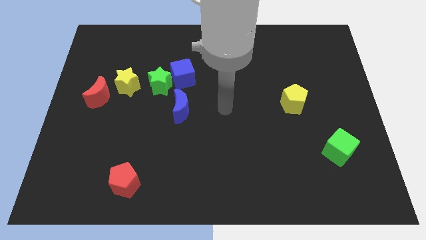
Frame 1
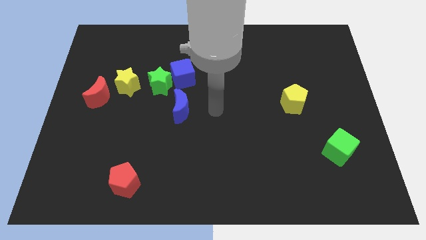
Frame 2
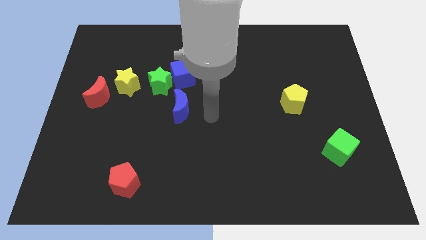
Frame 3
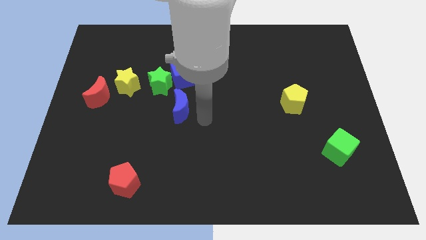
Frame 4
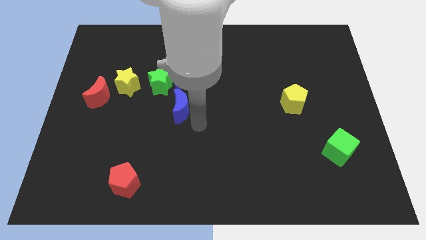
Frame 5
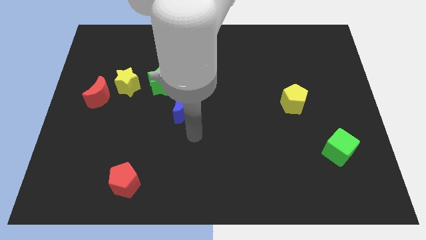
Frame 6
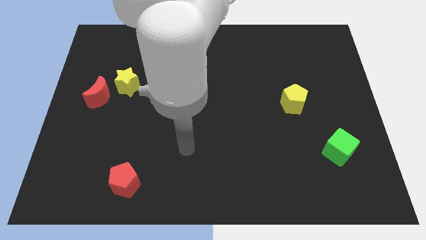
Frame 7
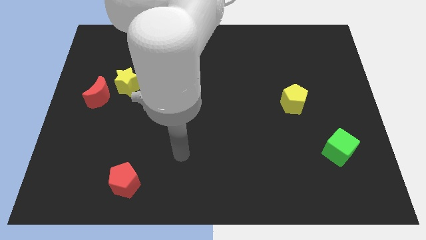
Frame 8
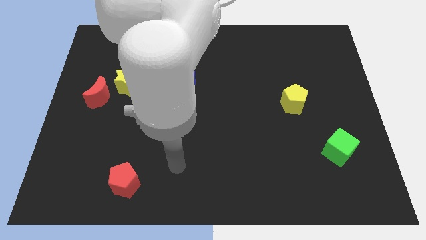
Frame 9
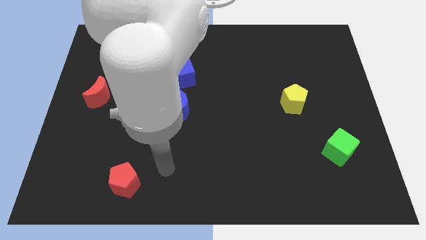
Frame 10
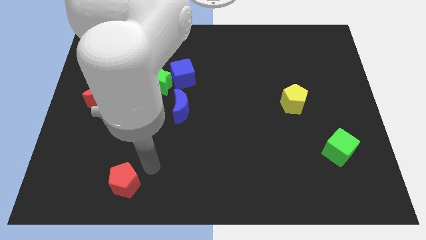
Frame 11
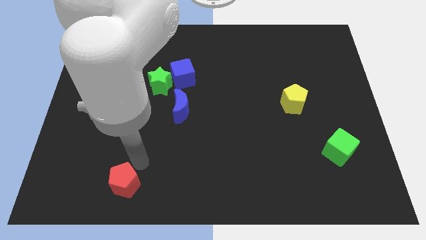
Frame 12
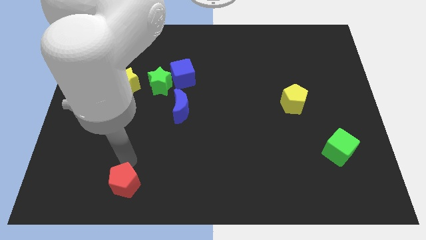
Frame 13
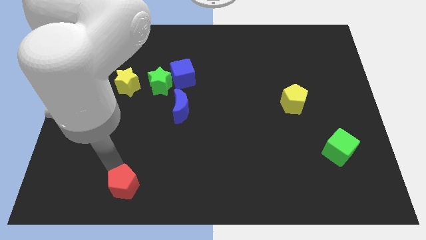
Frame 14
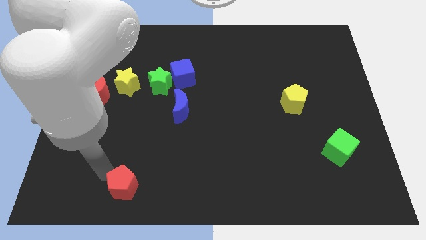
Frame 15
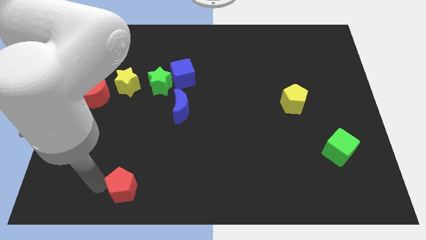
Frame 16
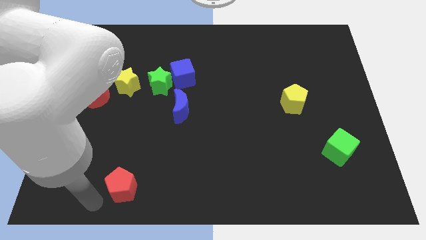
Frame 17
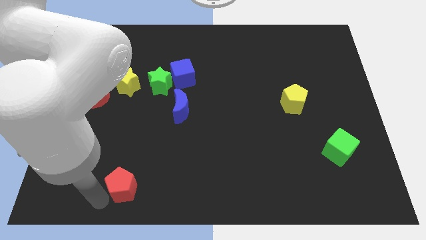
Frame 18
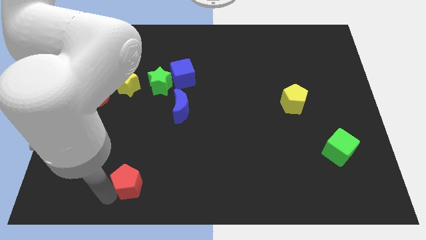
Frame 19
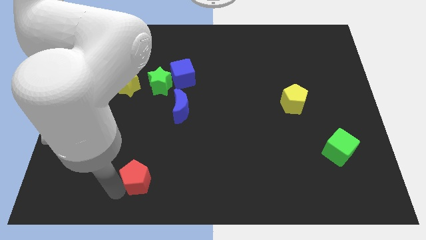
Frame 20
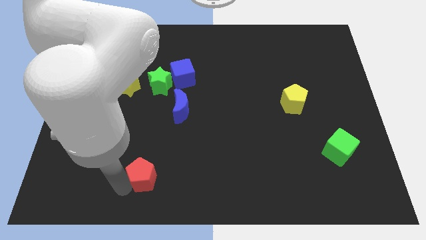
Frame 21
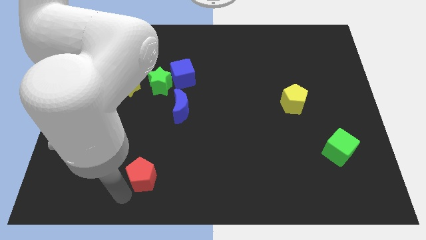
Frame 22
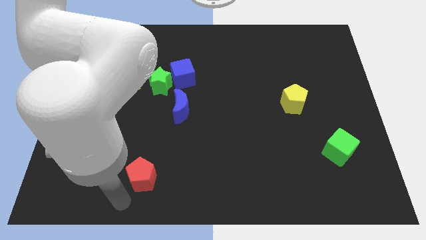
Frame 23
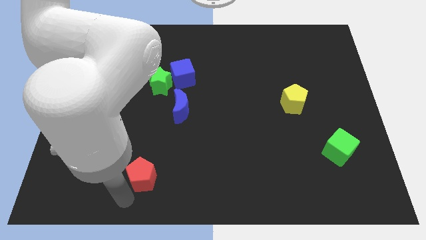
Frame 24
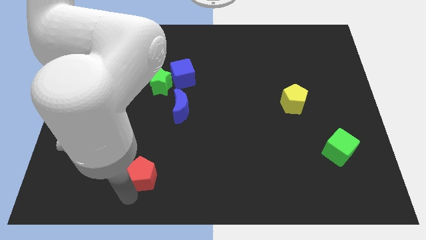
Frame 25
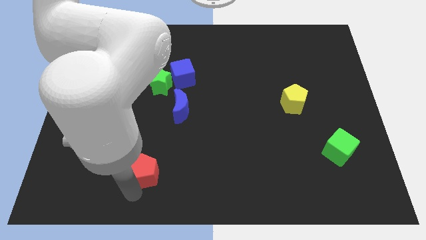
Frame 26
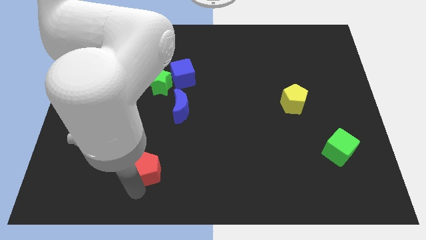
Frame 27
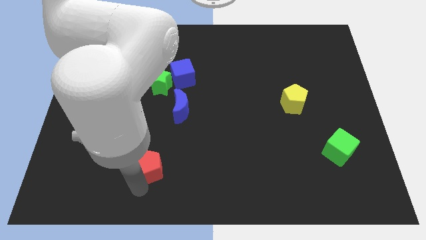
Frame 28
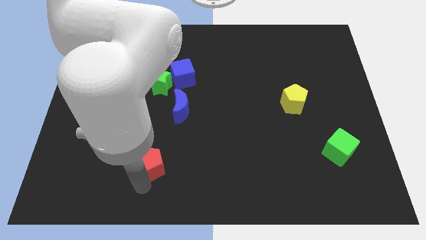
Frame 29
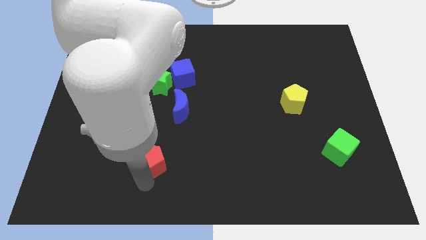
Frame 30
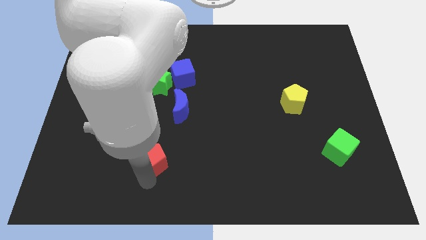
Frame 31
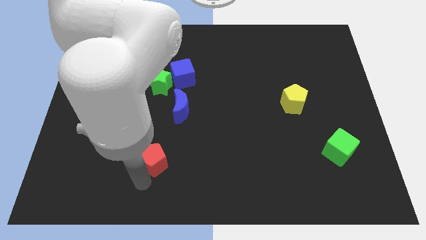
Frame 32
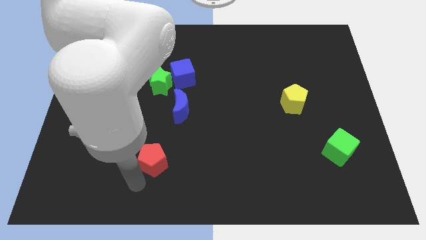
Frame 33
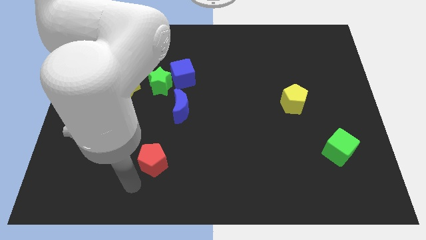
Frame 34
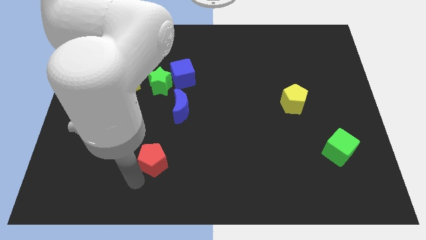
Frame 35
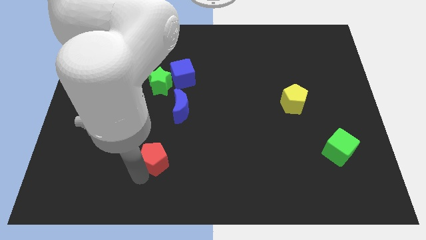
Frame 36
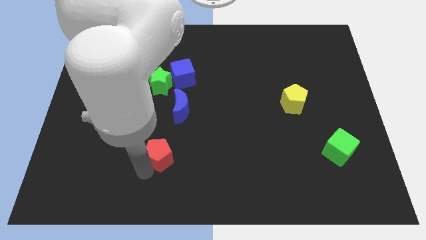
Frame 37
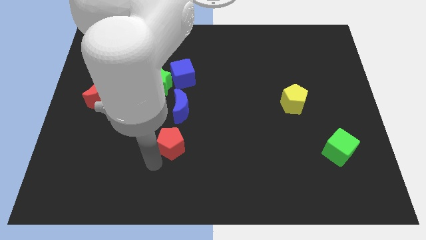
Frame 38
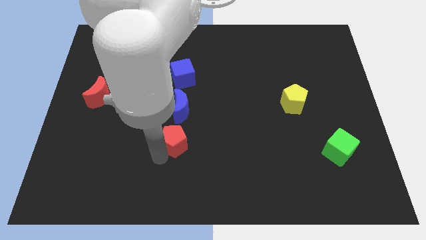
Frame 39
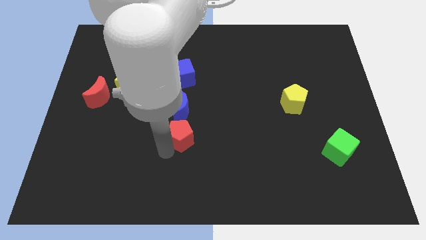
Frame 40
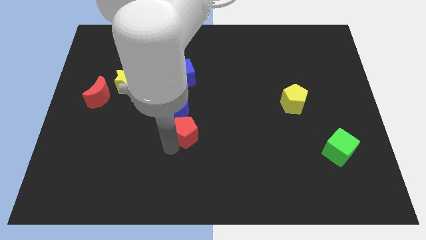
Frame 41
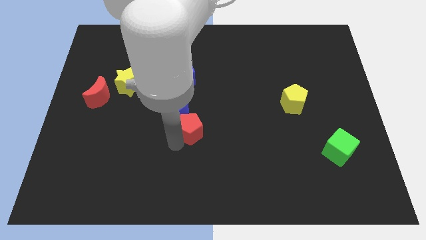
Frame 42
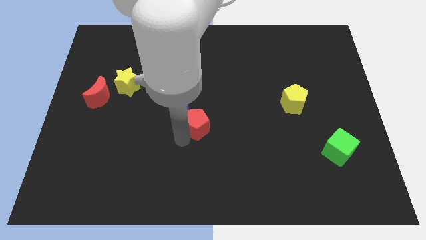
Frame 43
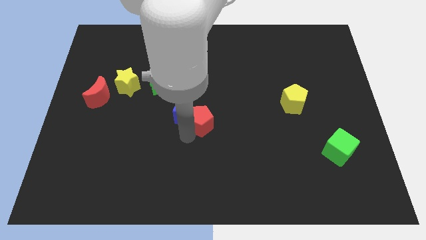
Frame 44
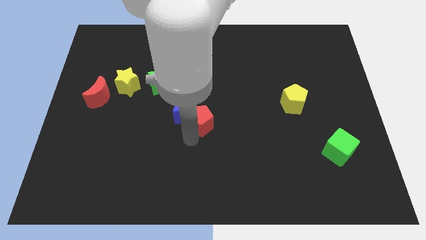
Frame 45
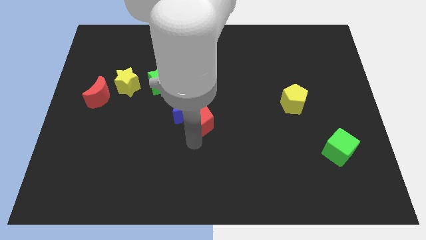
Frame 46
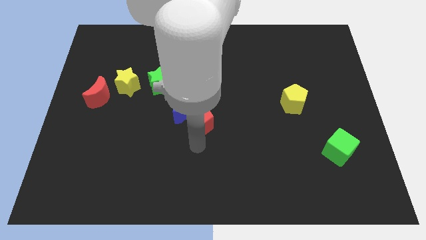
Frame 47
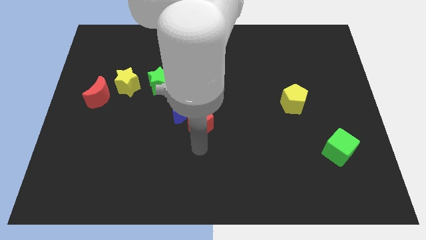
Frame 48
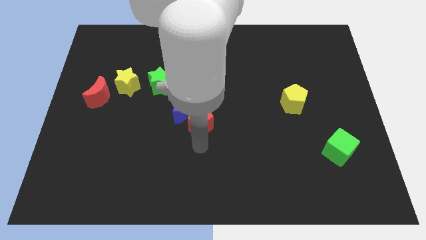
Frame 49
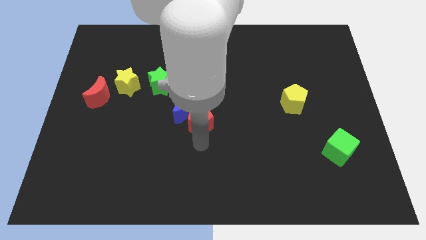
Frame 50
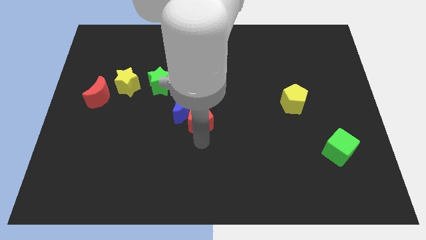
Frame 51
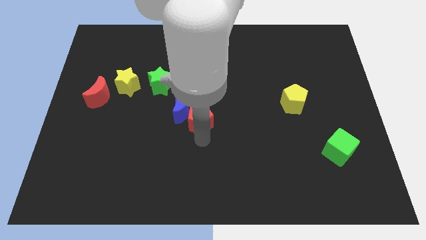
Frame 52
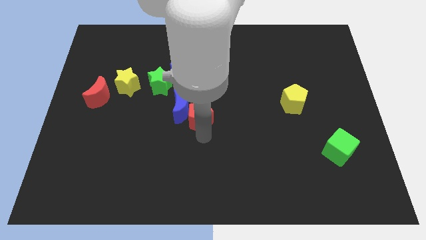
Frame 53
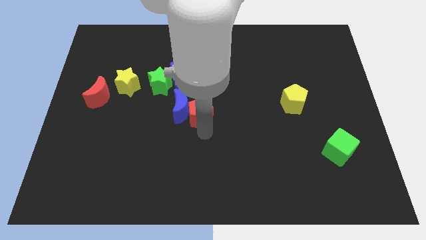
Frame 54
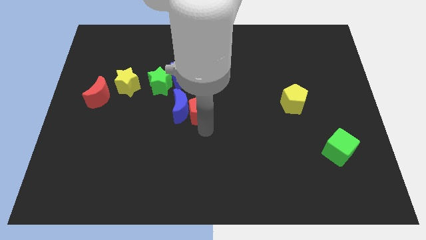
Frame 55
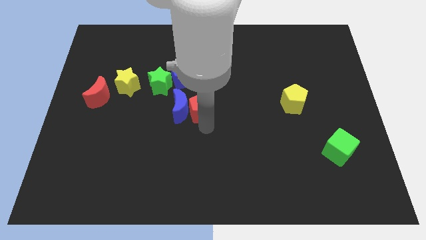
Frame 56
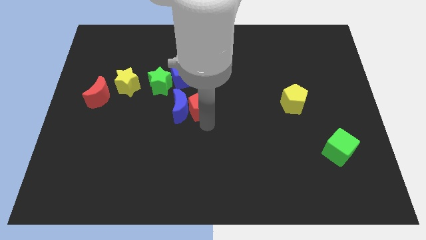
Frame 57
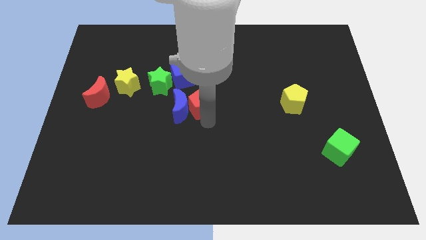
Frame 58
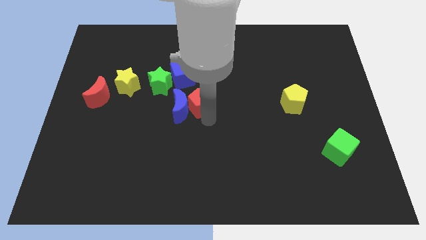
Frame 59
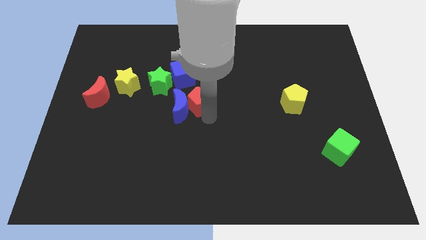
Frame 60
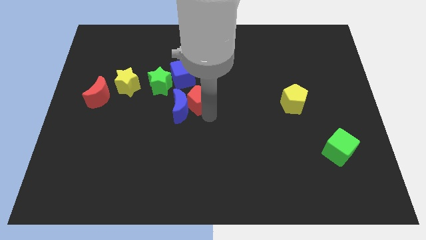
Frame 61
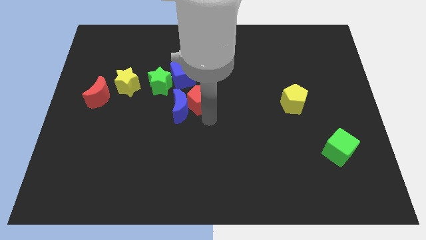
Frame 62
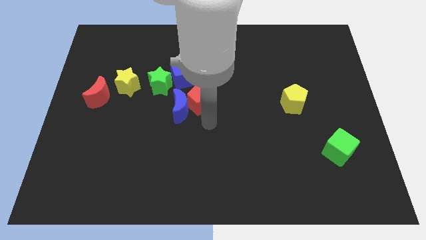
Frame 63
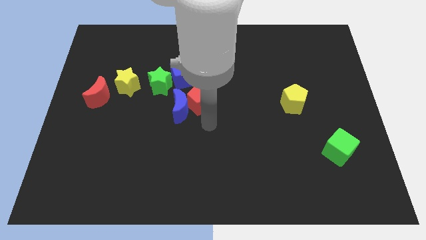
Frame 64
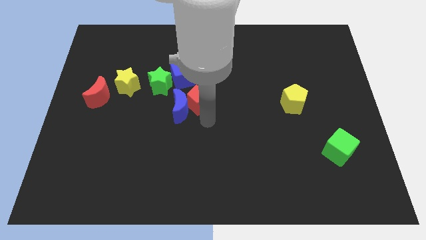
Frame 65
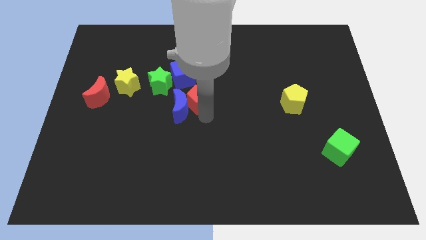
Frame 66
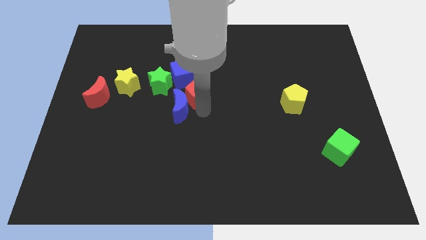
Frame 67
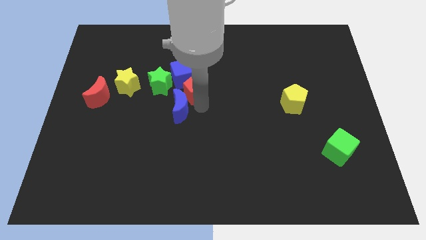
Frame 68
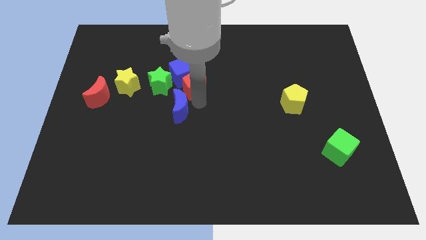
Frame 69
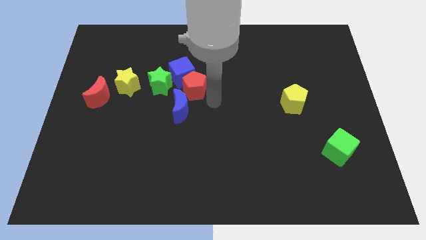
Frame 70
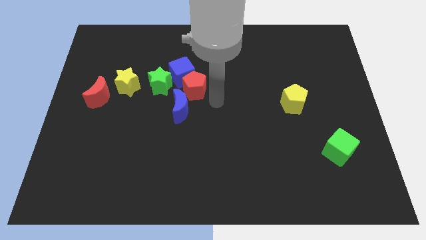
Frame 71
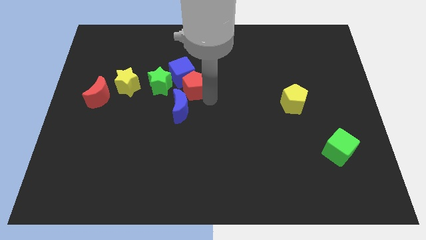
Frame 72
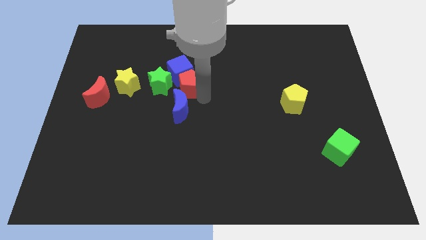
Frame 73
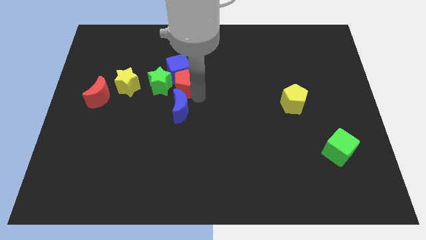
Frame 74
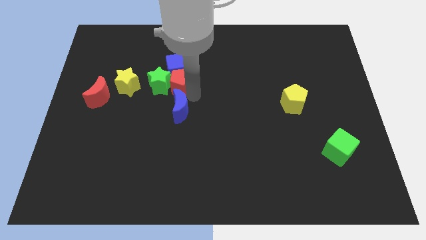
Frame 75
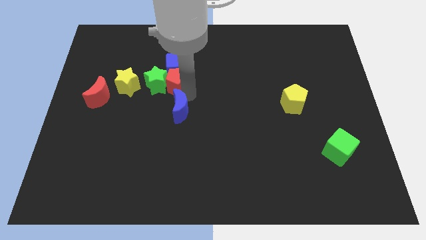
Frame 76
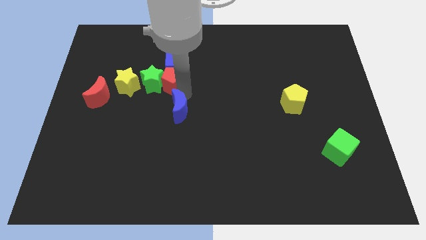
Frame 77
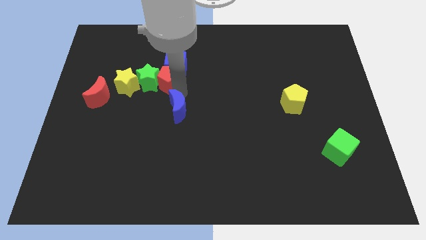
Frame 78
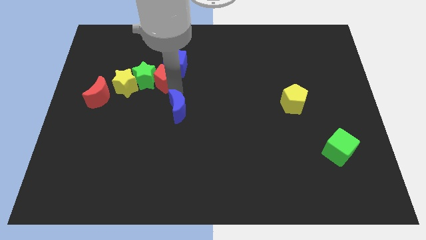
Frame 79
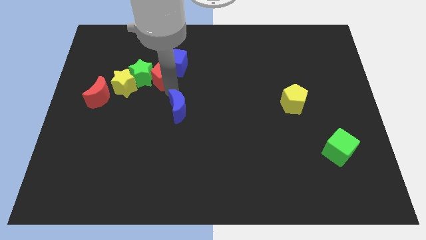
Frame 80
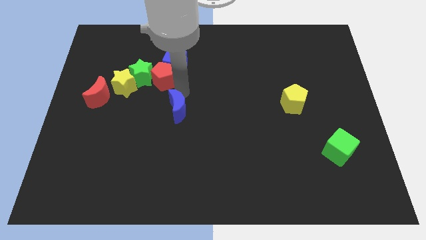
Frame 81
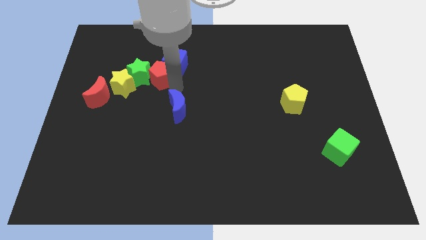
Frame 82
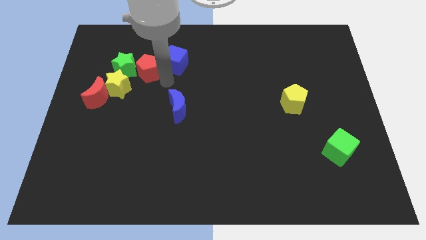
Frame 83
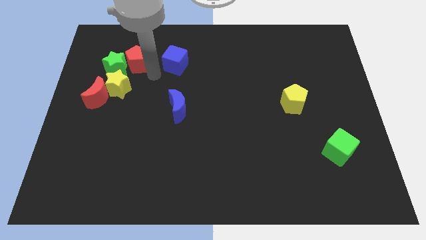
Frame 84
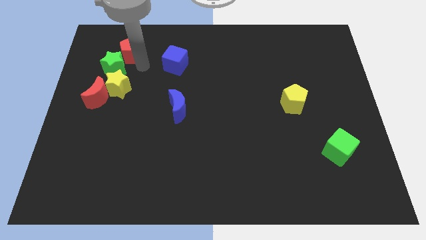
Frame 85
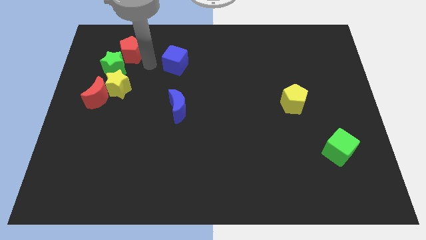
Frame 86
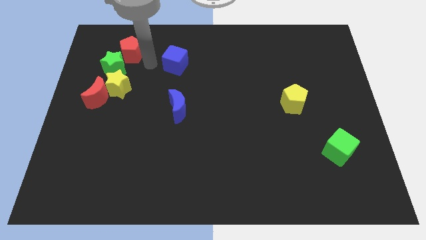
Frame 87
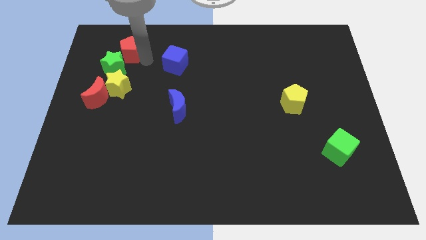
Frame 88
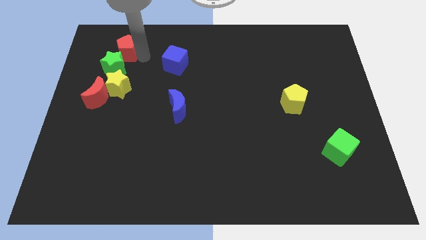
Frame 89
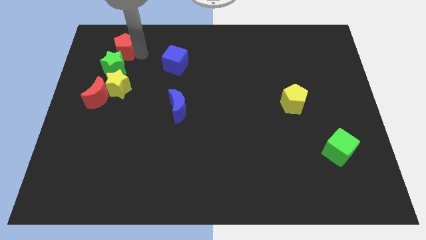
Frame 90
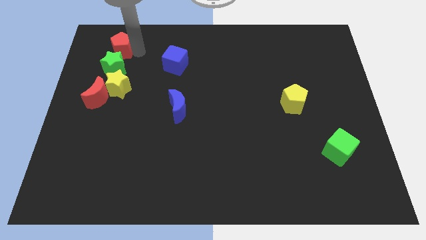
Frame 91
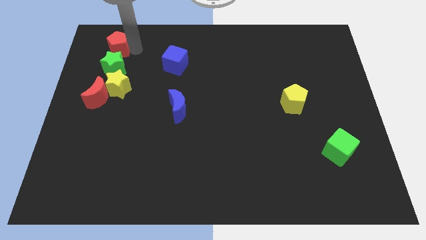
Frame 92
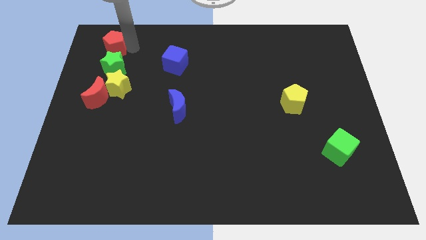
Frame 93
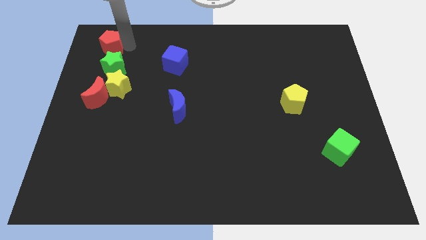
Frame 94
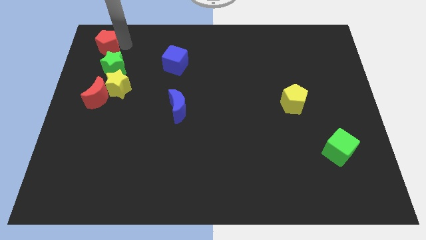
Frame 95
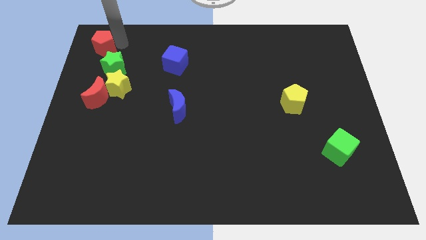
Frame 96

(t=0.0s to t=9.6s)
put the red pentagon to the upper left corner
